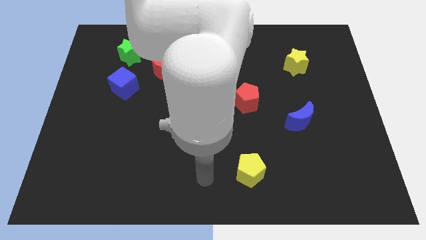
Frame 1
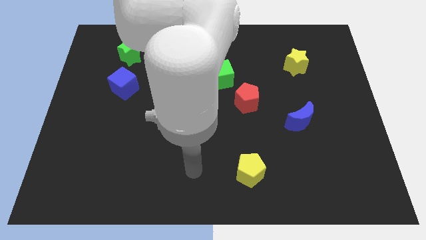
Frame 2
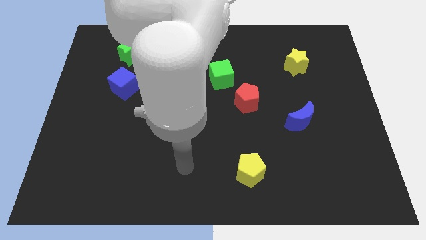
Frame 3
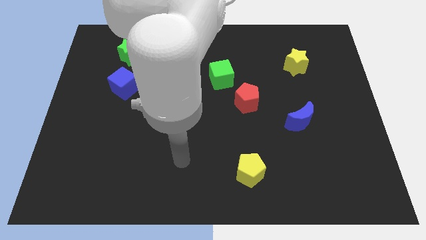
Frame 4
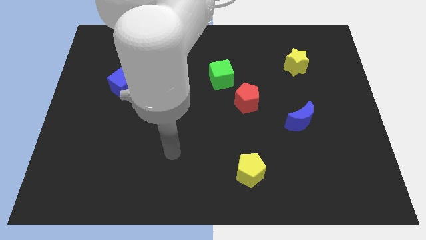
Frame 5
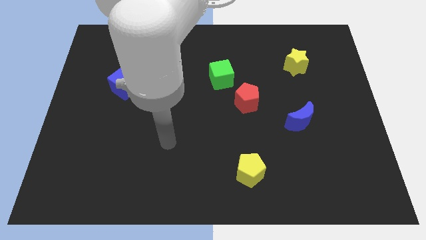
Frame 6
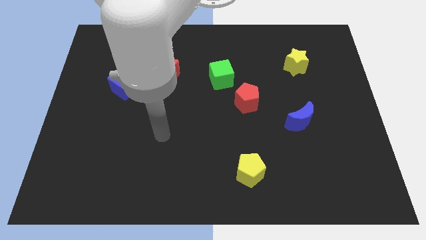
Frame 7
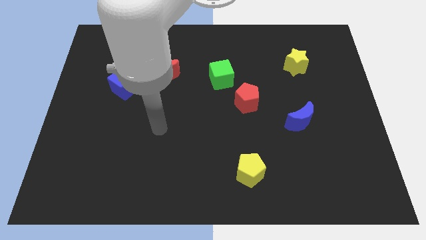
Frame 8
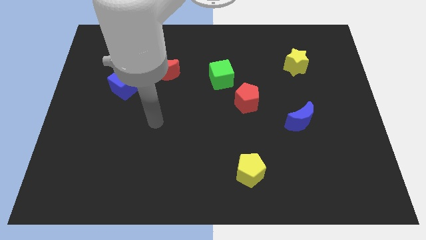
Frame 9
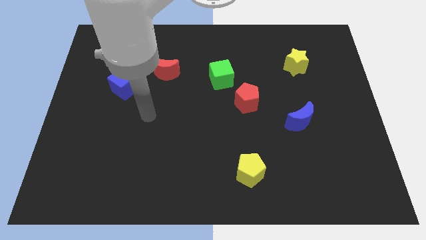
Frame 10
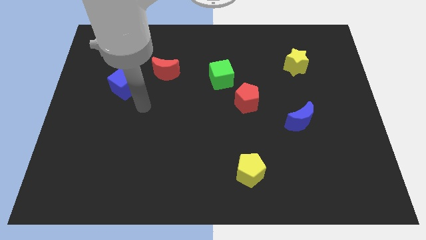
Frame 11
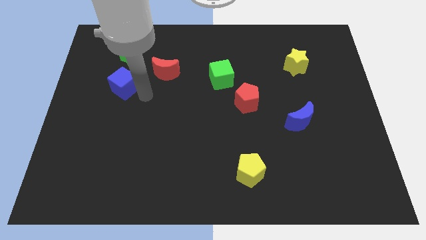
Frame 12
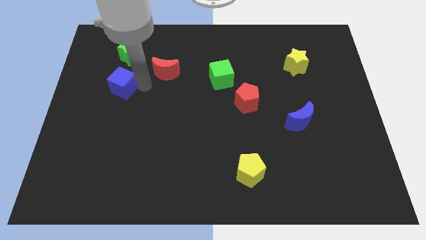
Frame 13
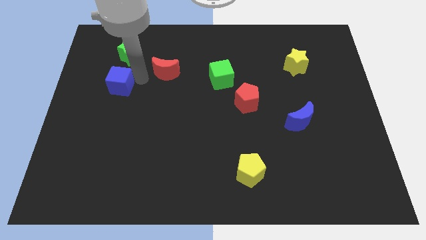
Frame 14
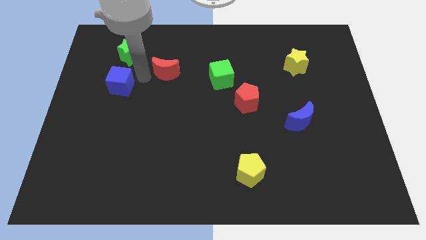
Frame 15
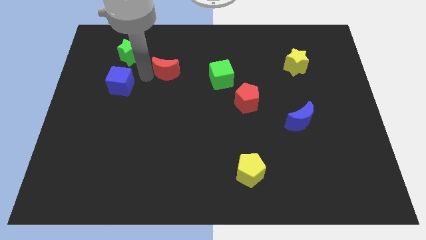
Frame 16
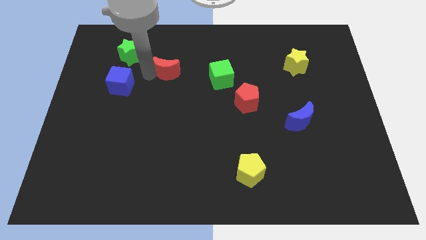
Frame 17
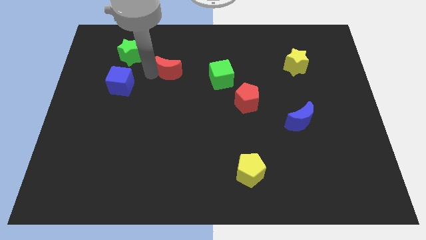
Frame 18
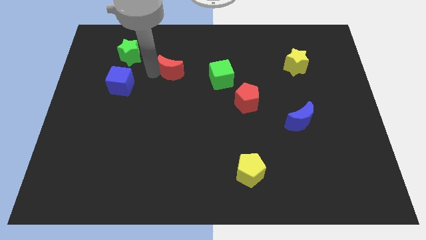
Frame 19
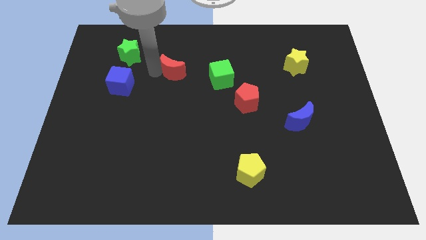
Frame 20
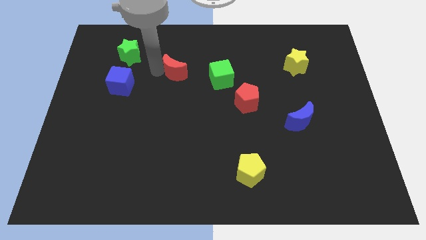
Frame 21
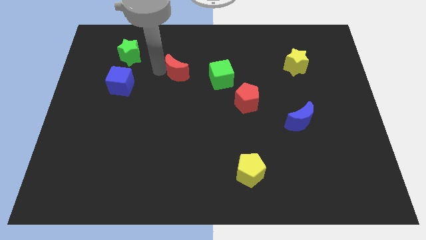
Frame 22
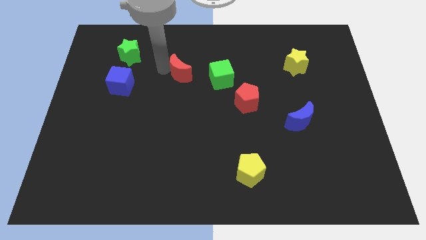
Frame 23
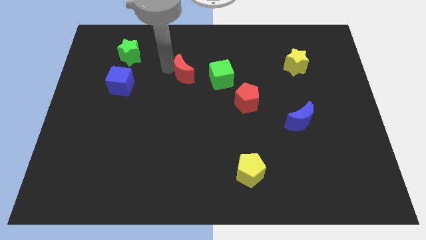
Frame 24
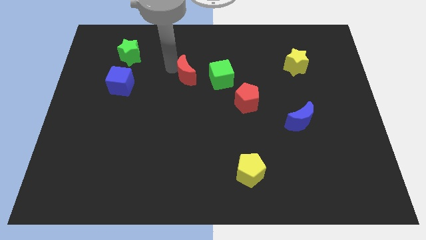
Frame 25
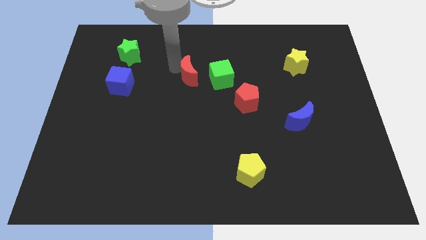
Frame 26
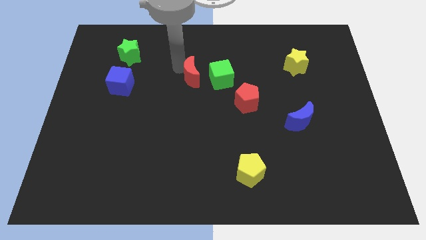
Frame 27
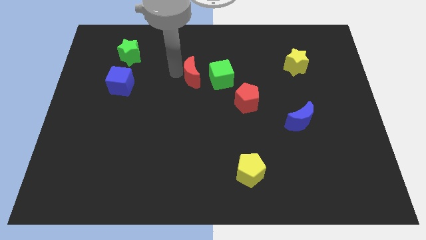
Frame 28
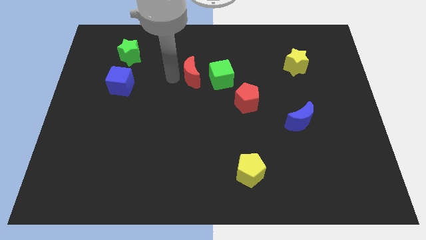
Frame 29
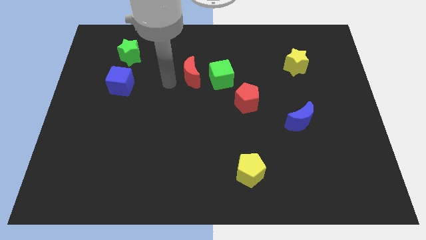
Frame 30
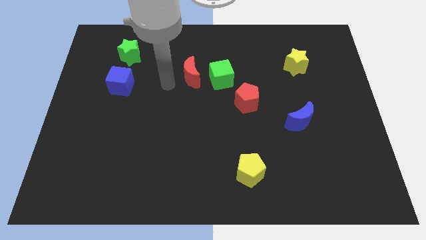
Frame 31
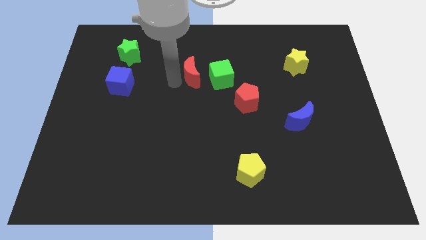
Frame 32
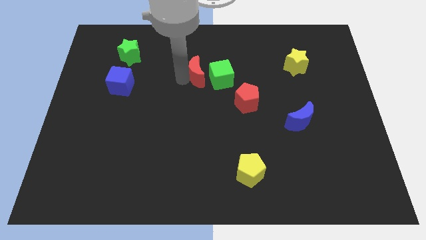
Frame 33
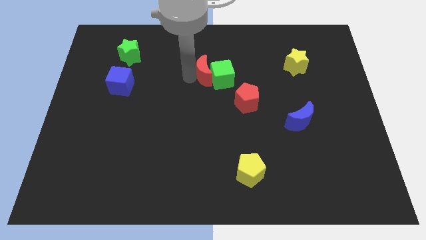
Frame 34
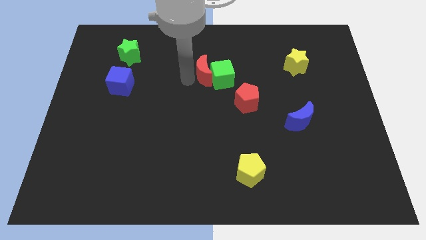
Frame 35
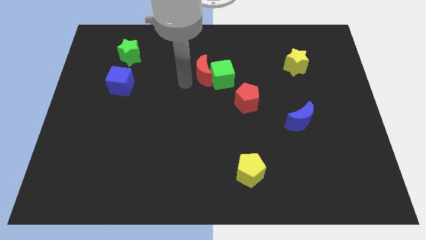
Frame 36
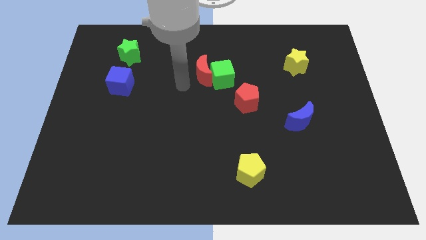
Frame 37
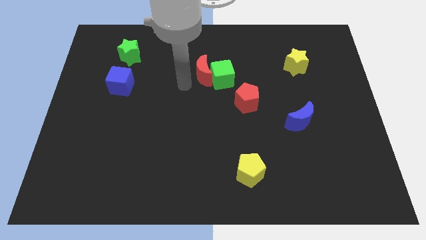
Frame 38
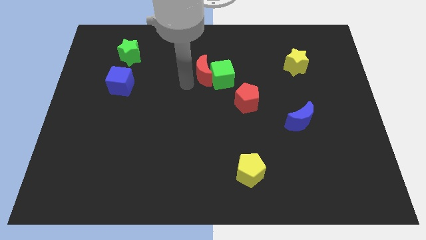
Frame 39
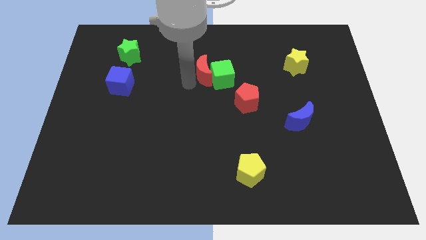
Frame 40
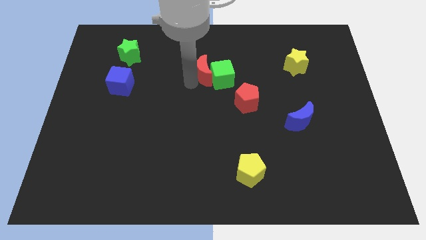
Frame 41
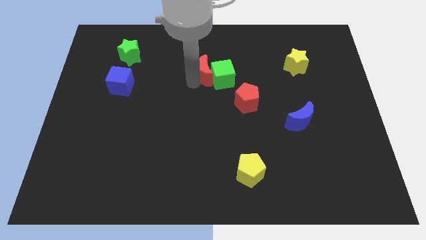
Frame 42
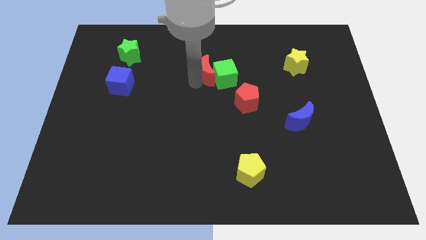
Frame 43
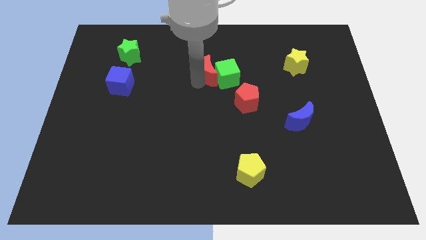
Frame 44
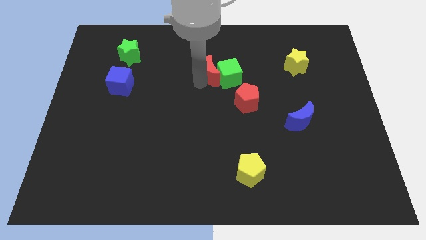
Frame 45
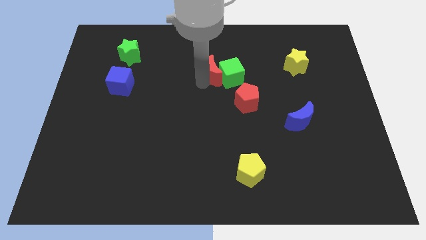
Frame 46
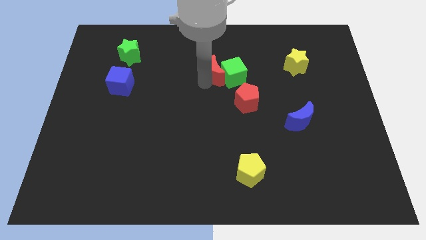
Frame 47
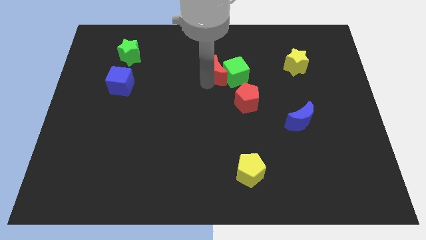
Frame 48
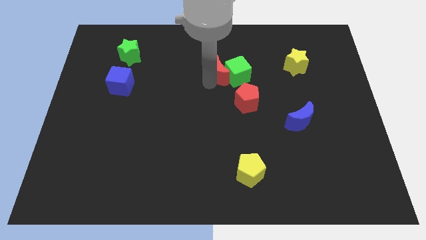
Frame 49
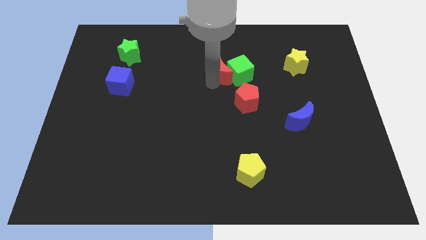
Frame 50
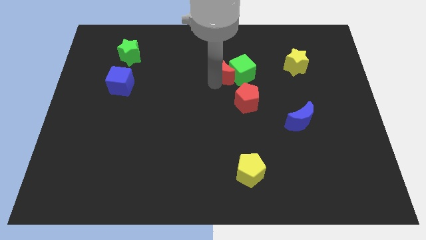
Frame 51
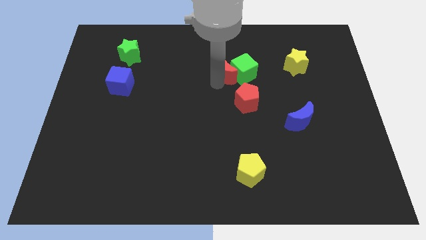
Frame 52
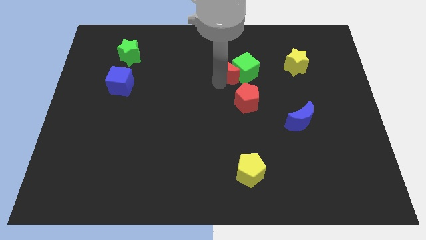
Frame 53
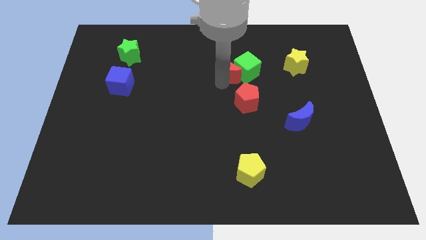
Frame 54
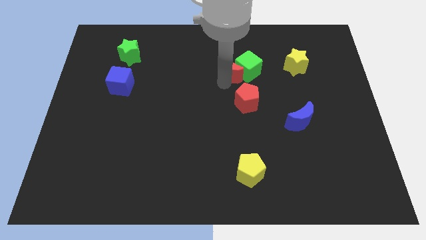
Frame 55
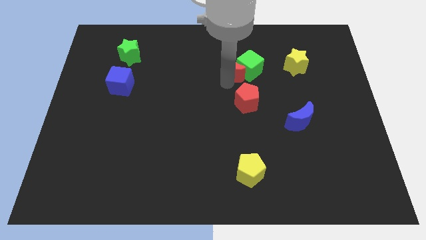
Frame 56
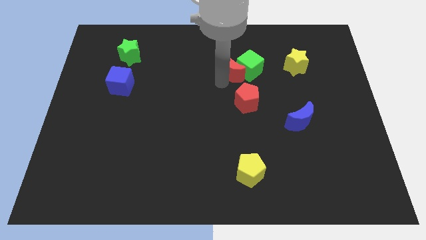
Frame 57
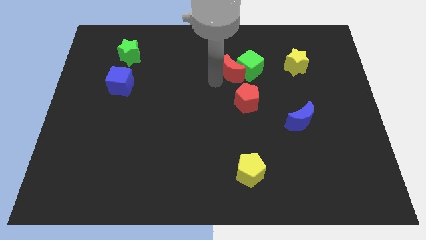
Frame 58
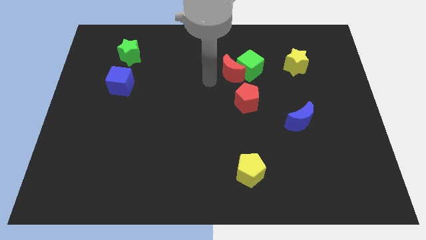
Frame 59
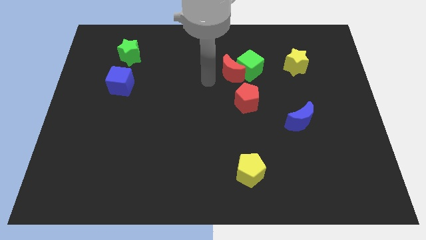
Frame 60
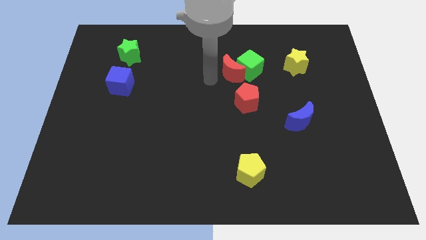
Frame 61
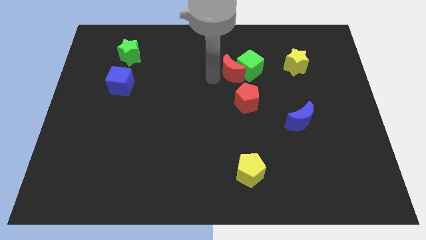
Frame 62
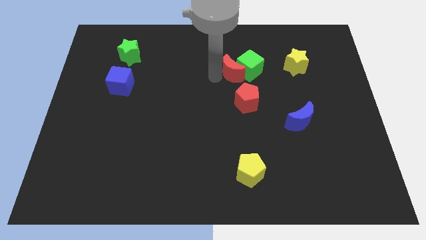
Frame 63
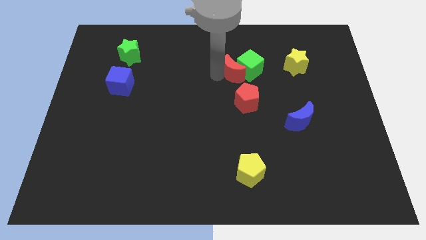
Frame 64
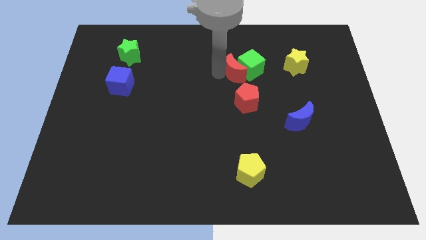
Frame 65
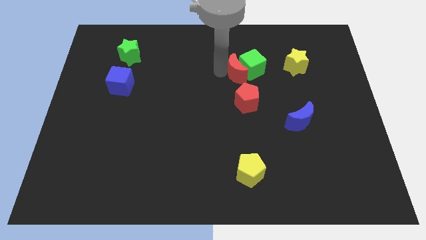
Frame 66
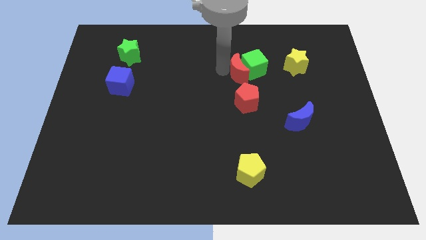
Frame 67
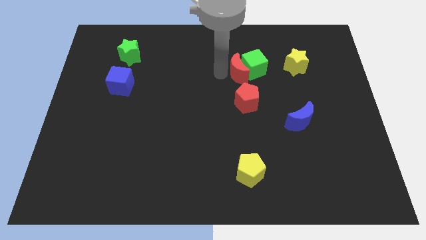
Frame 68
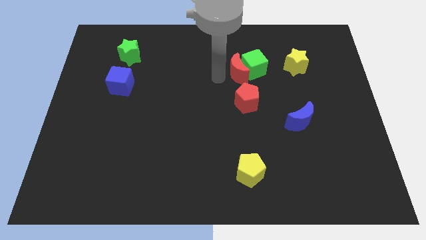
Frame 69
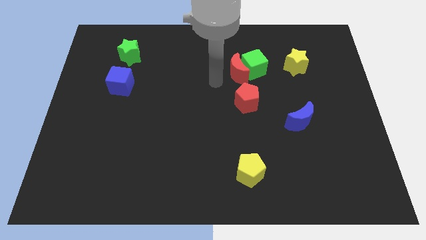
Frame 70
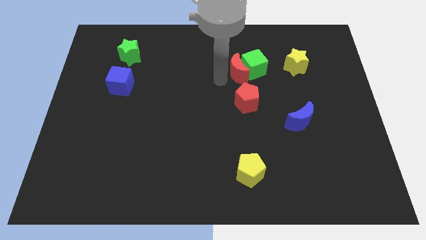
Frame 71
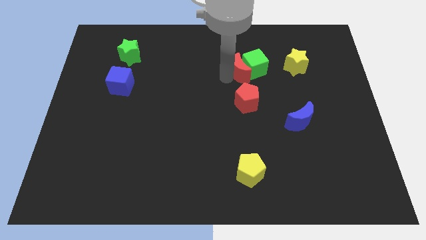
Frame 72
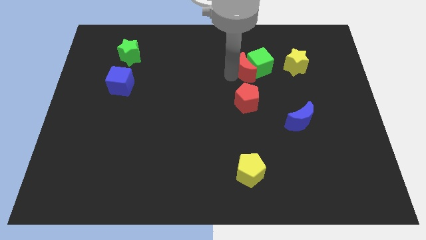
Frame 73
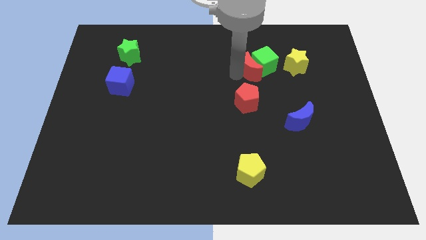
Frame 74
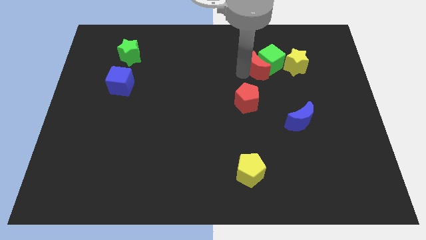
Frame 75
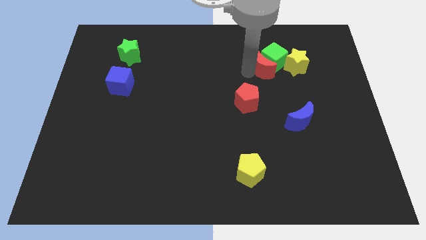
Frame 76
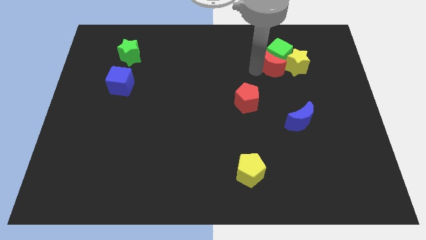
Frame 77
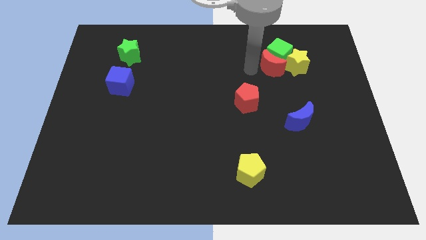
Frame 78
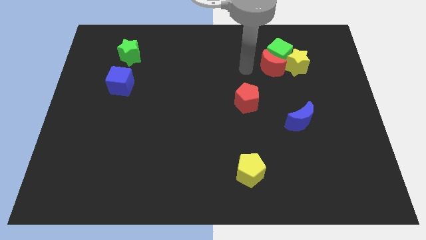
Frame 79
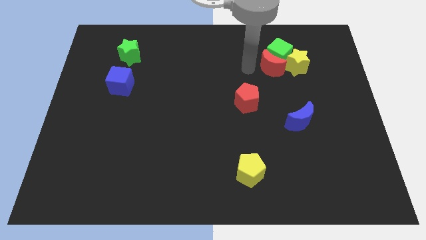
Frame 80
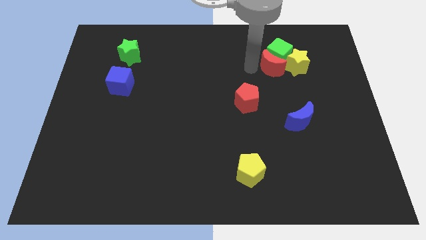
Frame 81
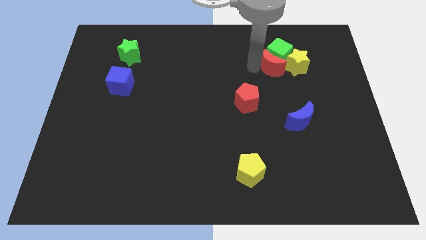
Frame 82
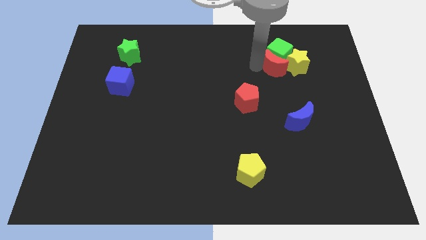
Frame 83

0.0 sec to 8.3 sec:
put the red moon next to the yellow star
